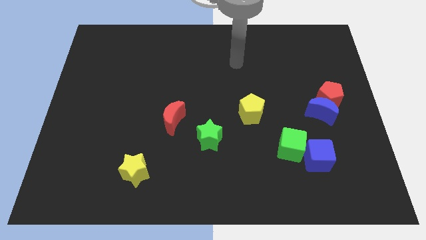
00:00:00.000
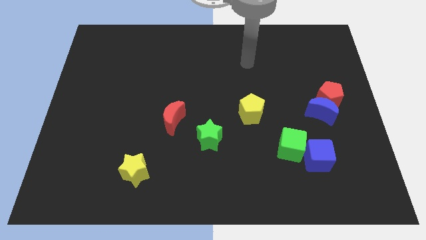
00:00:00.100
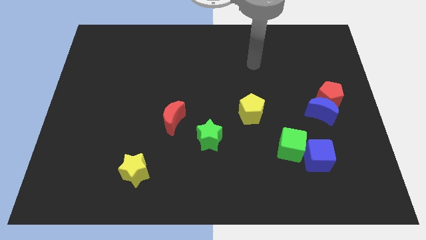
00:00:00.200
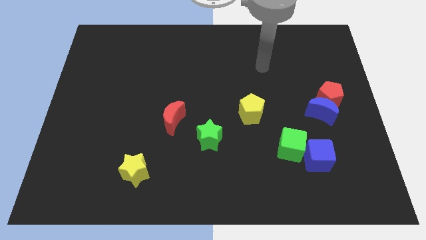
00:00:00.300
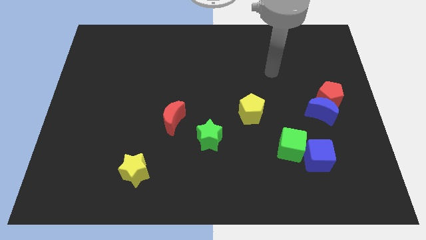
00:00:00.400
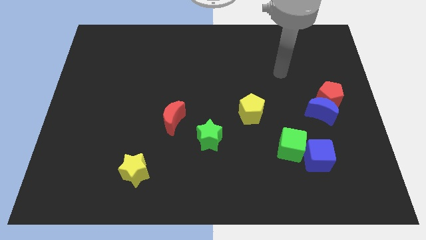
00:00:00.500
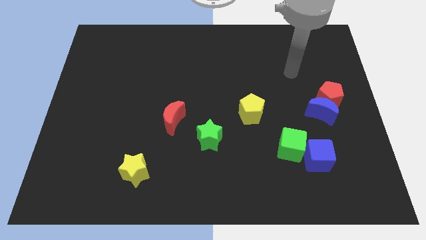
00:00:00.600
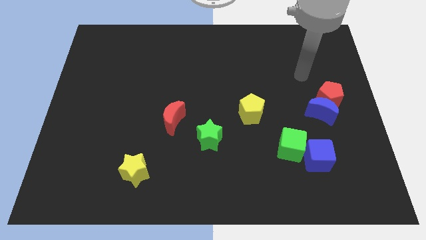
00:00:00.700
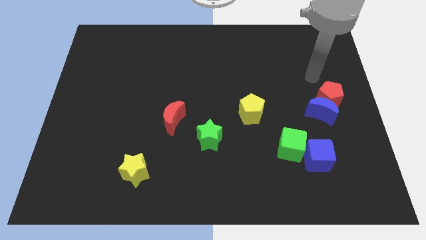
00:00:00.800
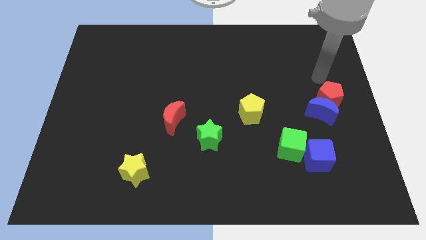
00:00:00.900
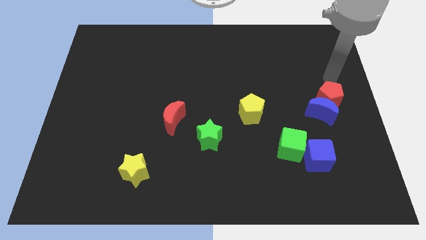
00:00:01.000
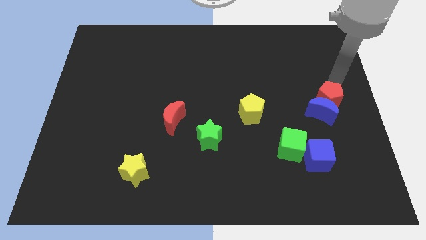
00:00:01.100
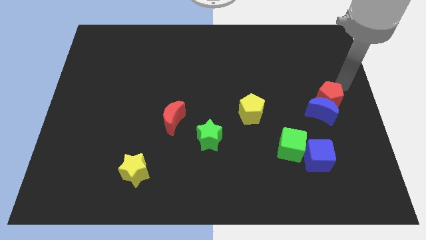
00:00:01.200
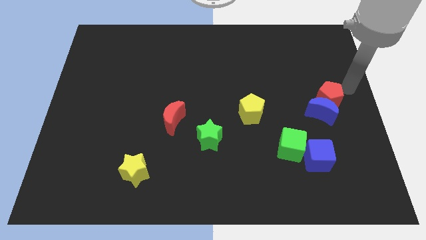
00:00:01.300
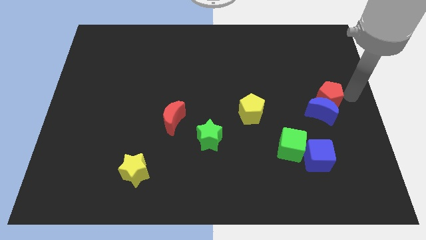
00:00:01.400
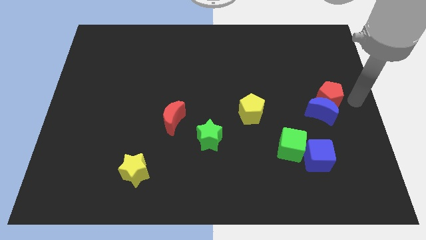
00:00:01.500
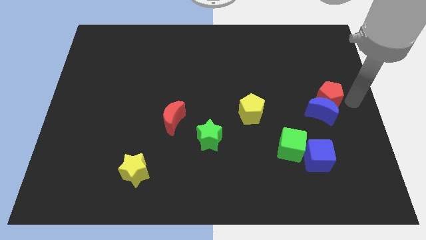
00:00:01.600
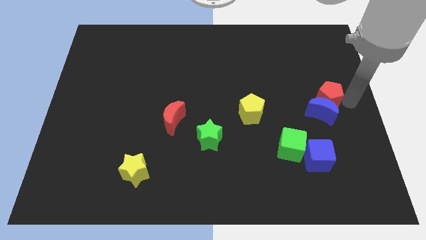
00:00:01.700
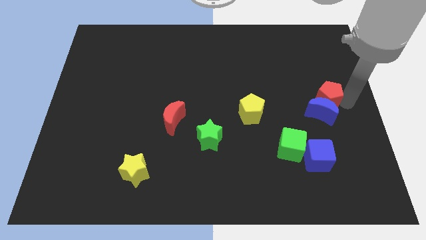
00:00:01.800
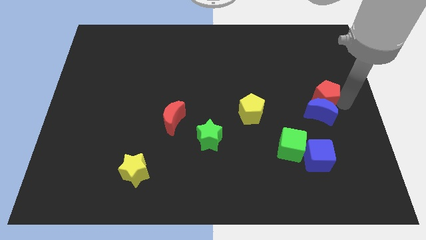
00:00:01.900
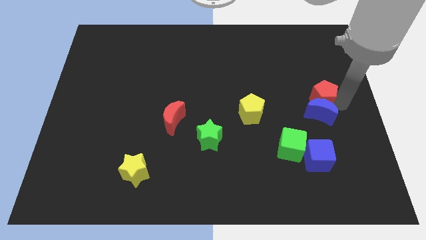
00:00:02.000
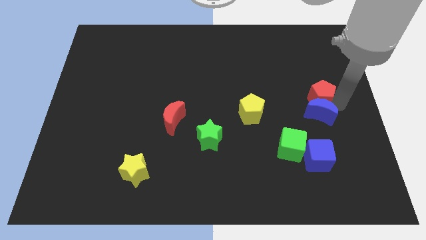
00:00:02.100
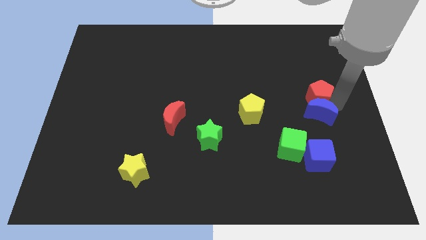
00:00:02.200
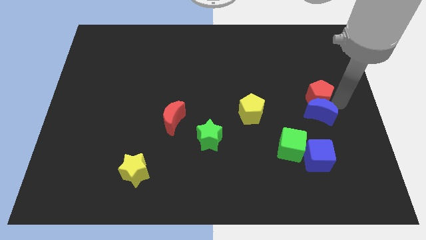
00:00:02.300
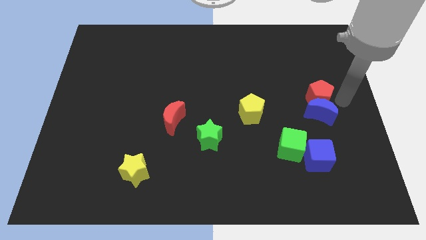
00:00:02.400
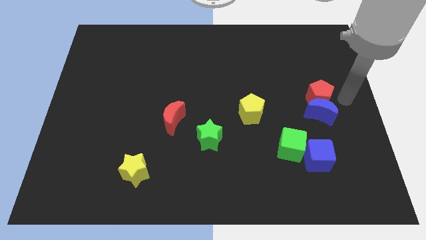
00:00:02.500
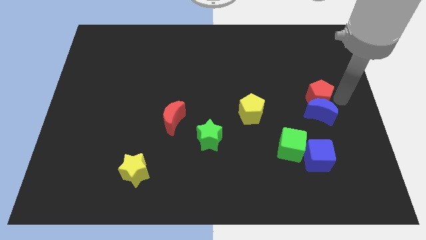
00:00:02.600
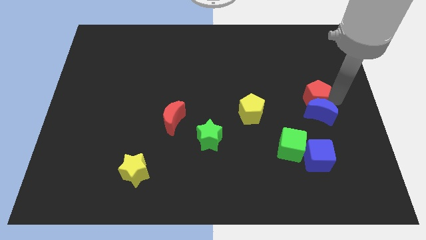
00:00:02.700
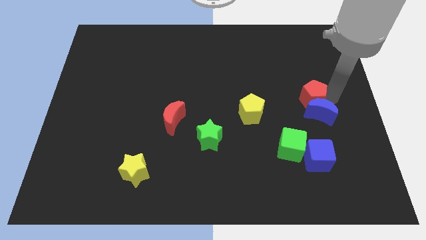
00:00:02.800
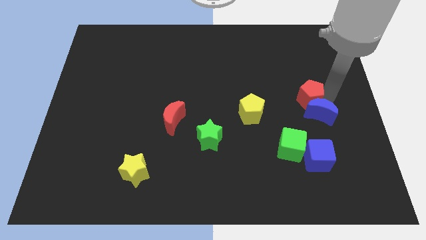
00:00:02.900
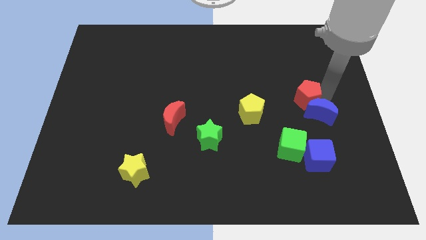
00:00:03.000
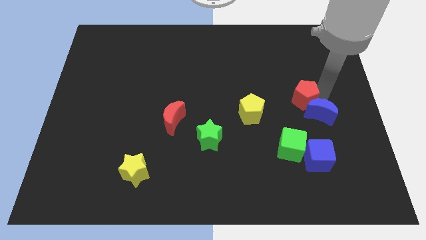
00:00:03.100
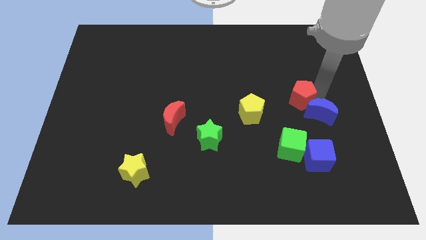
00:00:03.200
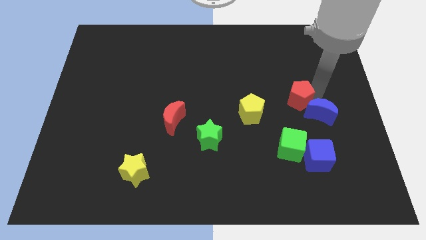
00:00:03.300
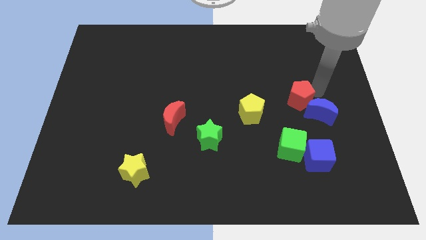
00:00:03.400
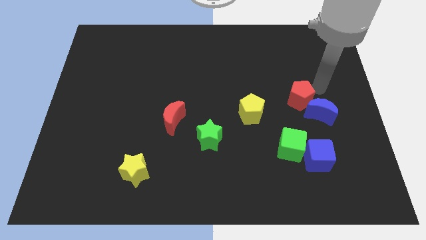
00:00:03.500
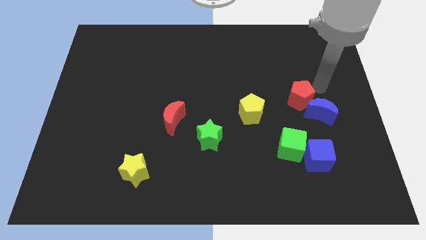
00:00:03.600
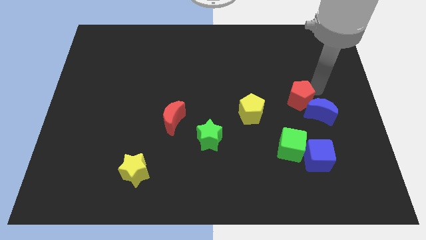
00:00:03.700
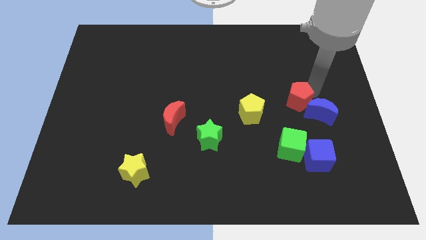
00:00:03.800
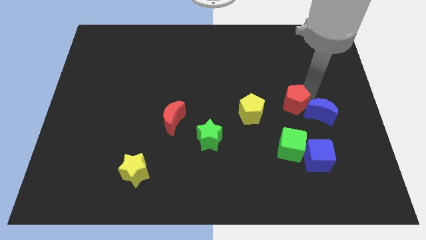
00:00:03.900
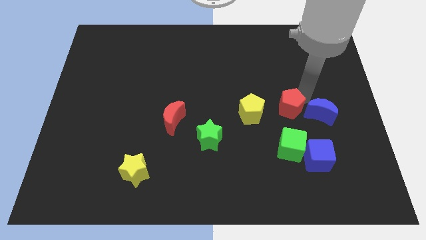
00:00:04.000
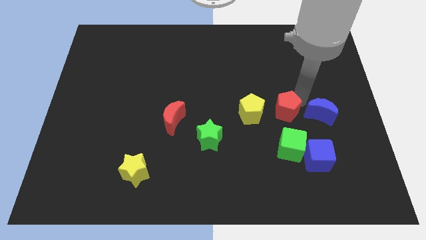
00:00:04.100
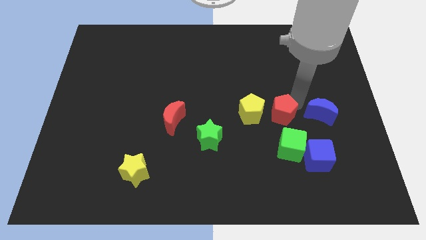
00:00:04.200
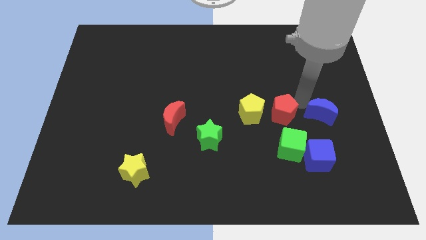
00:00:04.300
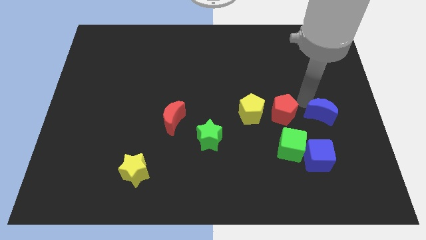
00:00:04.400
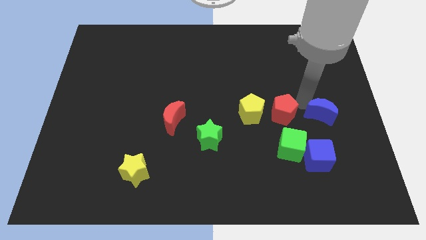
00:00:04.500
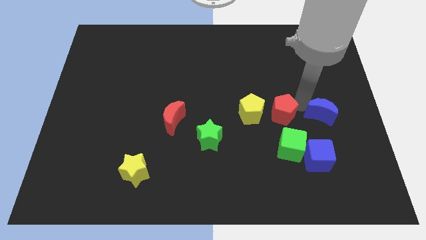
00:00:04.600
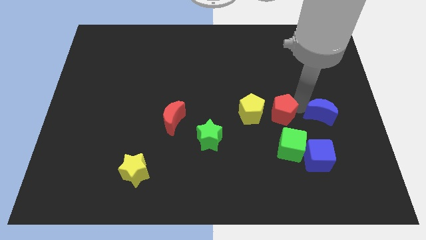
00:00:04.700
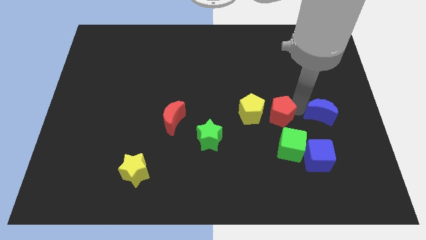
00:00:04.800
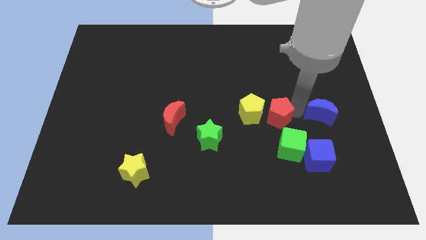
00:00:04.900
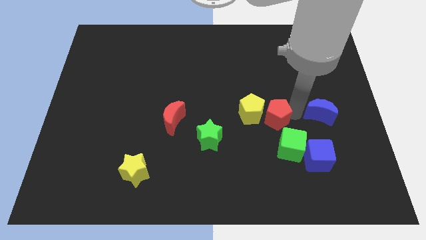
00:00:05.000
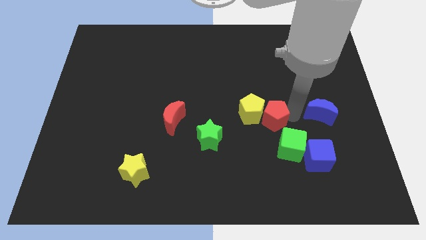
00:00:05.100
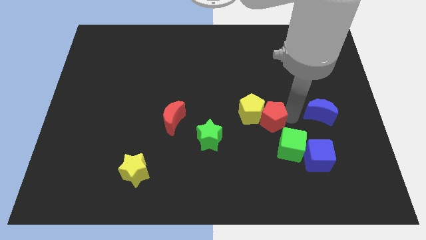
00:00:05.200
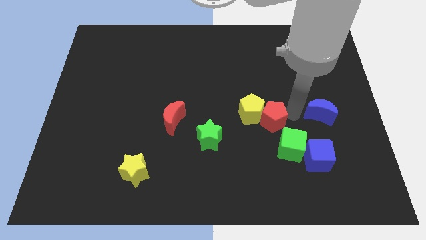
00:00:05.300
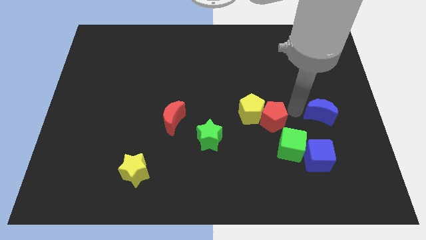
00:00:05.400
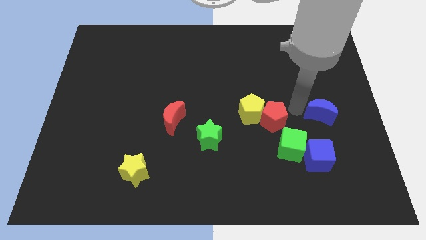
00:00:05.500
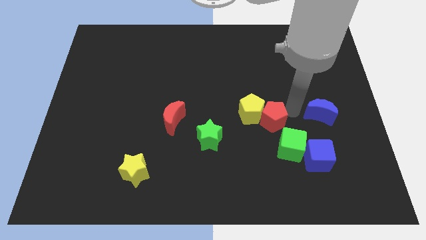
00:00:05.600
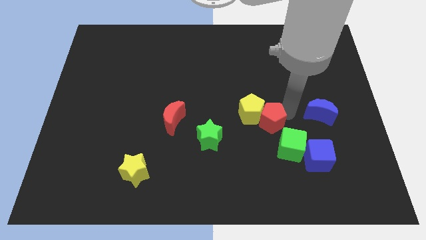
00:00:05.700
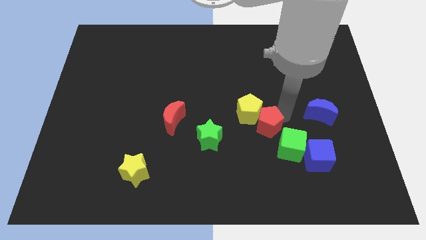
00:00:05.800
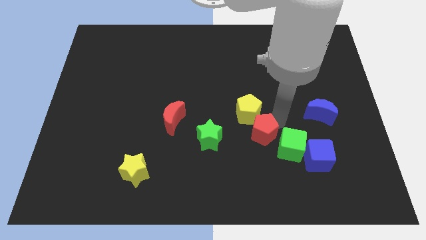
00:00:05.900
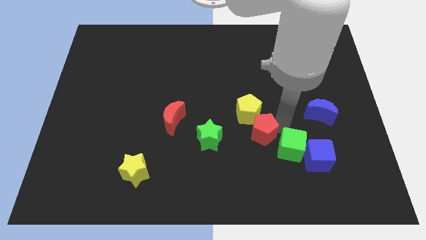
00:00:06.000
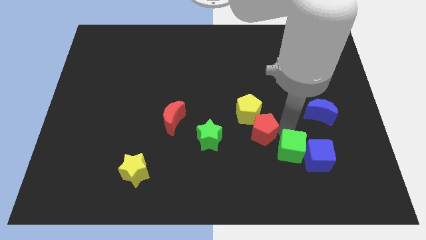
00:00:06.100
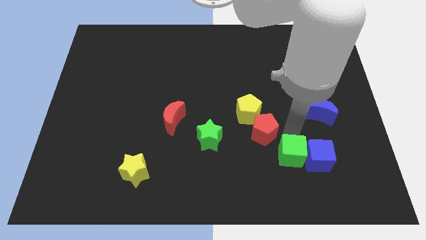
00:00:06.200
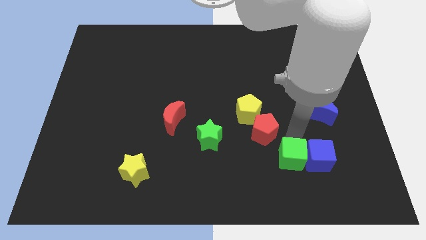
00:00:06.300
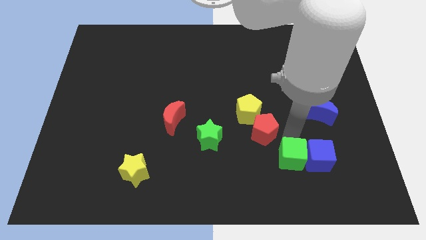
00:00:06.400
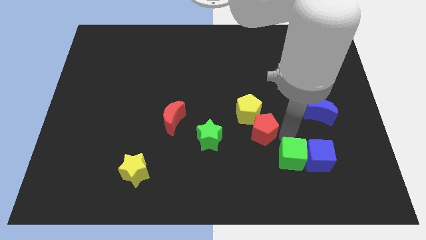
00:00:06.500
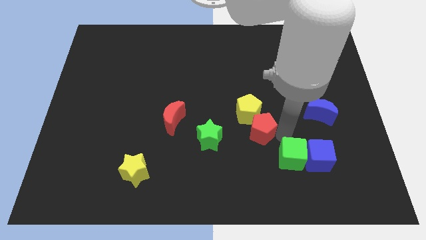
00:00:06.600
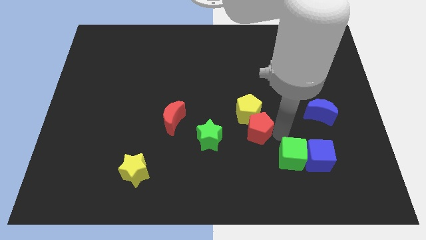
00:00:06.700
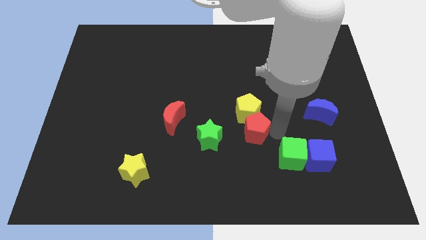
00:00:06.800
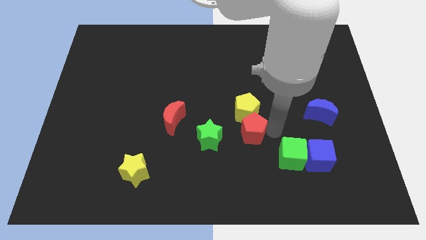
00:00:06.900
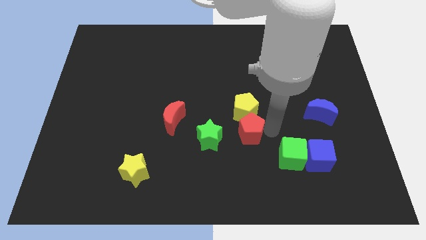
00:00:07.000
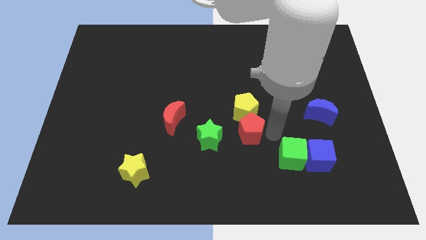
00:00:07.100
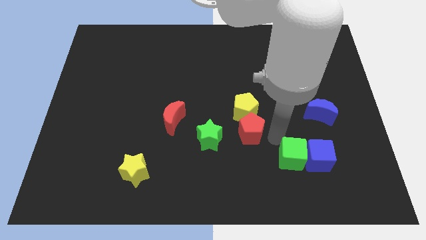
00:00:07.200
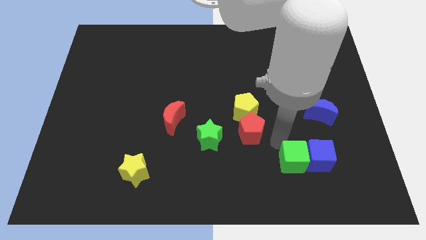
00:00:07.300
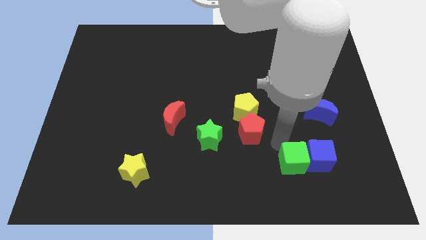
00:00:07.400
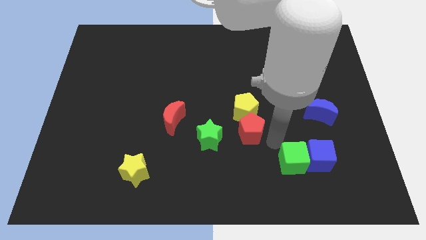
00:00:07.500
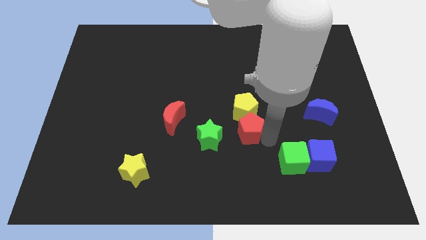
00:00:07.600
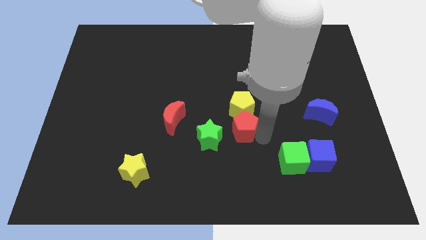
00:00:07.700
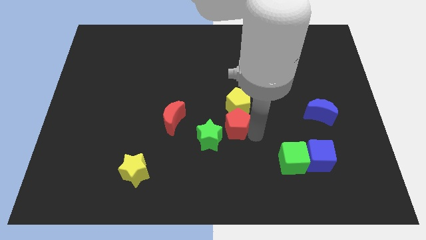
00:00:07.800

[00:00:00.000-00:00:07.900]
put the red pentagon to the right of the red moon
